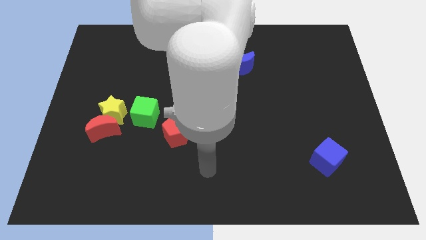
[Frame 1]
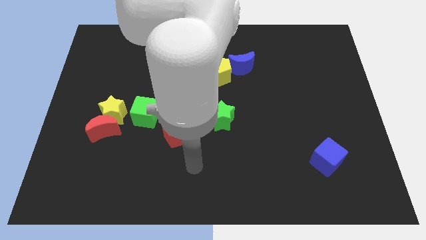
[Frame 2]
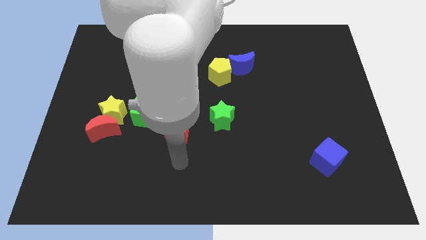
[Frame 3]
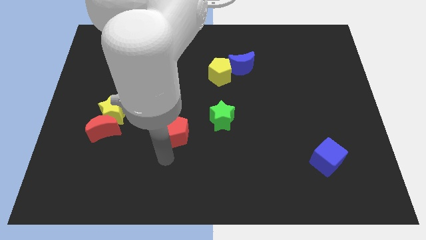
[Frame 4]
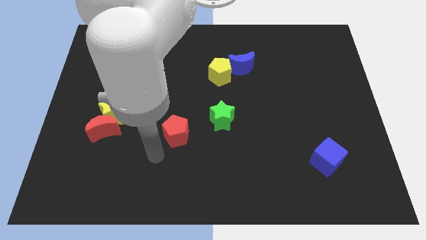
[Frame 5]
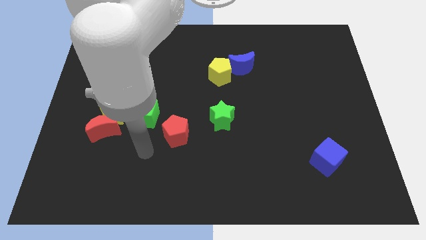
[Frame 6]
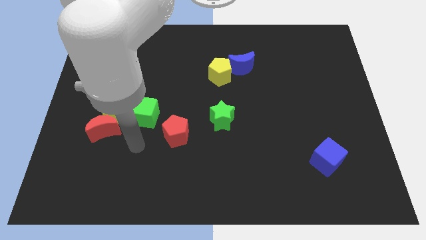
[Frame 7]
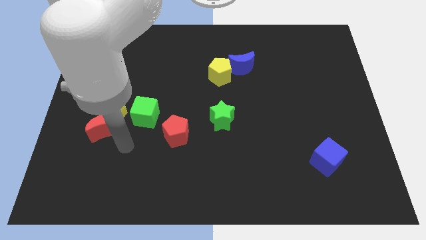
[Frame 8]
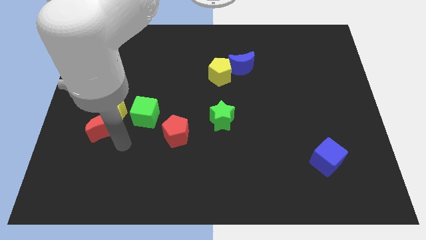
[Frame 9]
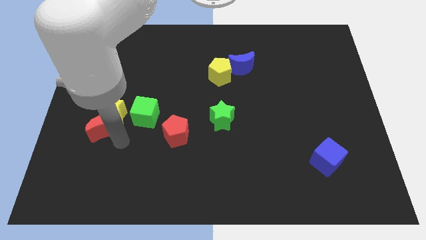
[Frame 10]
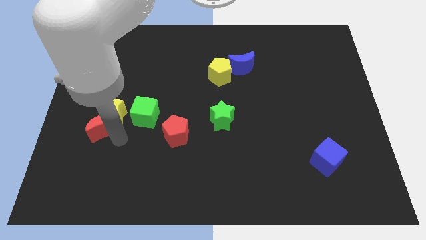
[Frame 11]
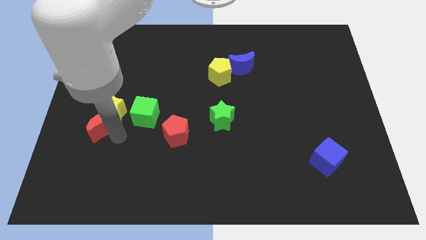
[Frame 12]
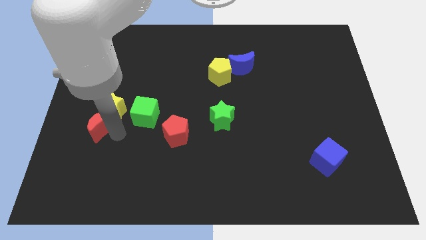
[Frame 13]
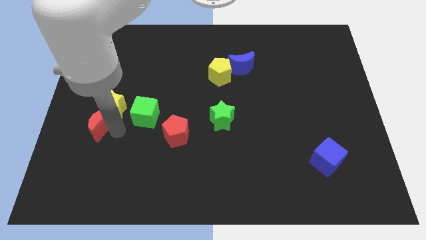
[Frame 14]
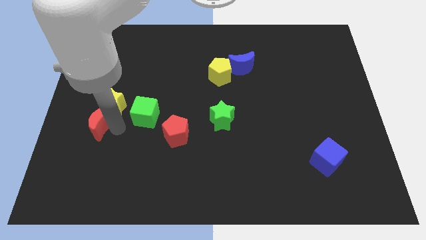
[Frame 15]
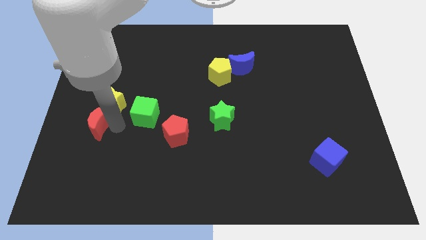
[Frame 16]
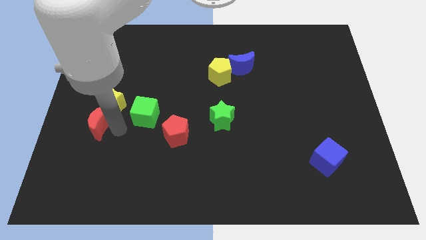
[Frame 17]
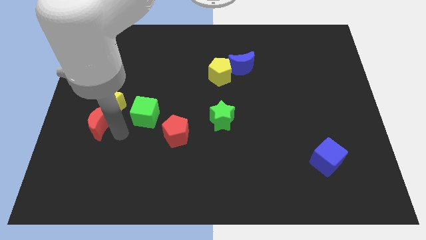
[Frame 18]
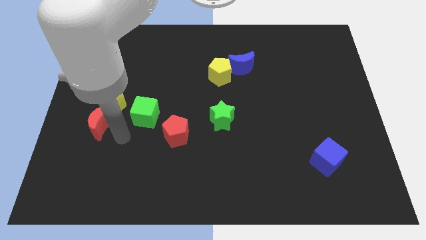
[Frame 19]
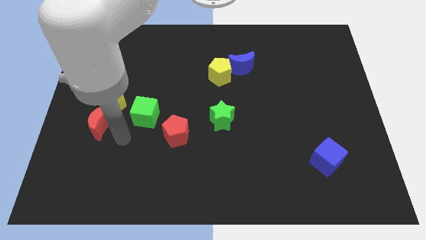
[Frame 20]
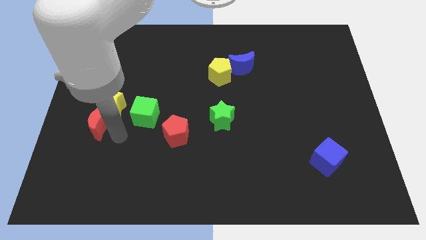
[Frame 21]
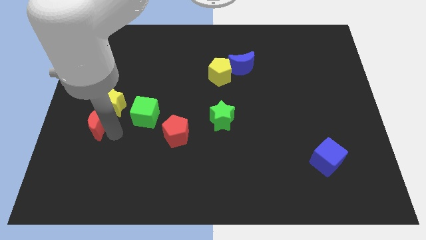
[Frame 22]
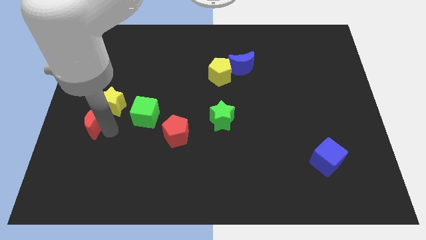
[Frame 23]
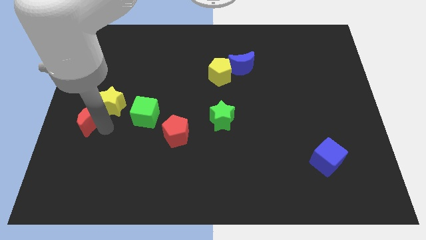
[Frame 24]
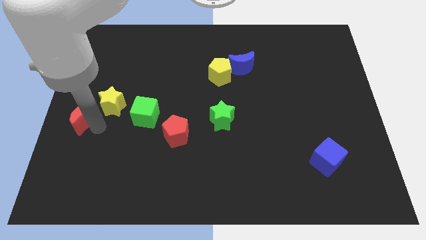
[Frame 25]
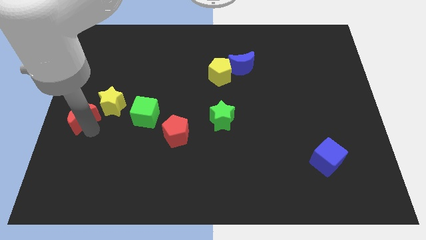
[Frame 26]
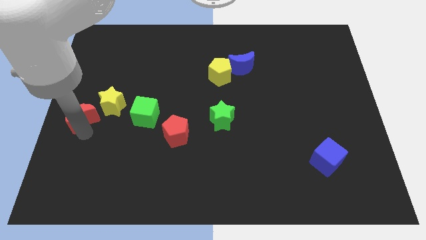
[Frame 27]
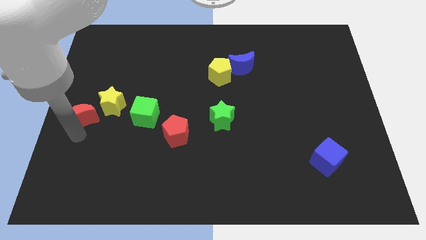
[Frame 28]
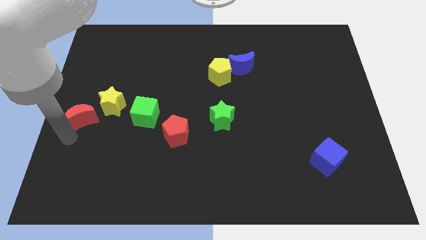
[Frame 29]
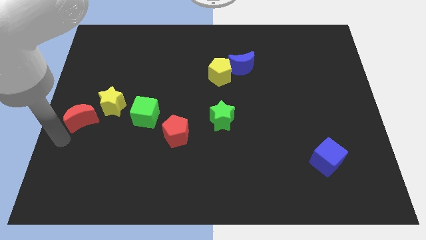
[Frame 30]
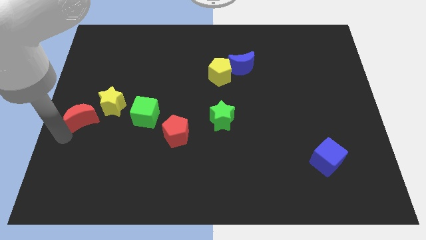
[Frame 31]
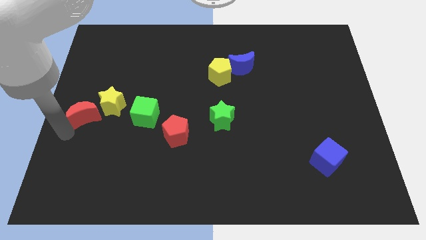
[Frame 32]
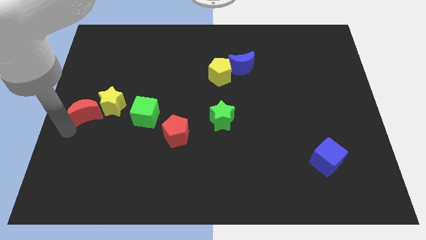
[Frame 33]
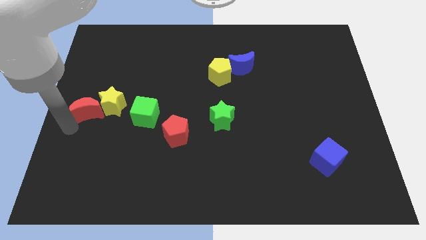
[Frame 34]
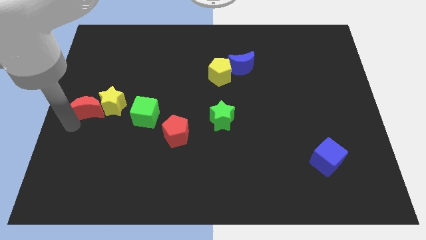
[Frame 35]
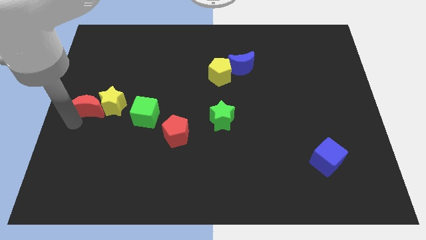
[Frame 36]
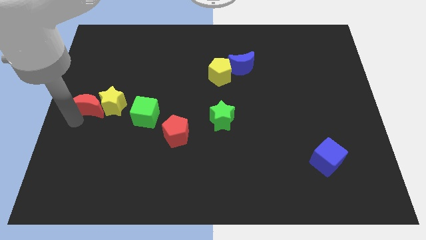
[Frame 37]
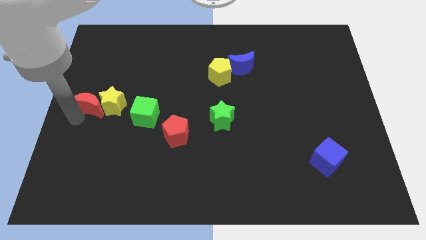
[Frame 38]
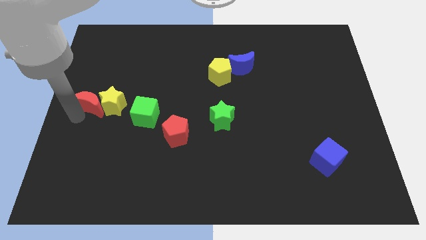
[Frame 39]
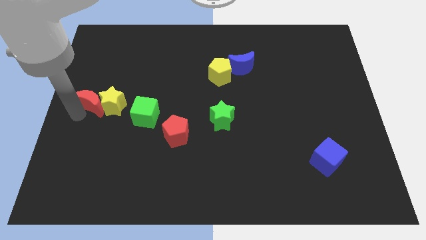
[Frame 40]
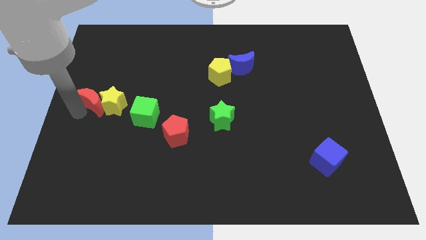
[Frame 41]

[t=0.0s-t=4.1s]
slightly move the red moon up

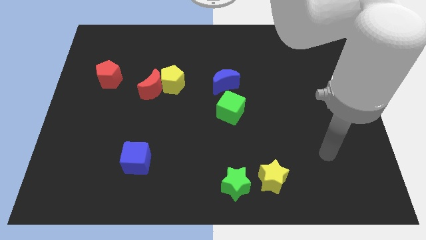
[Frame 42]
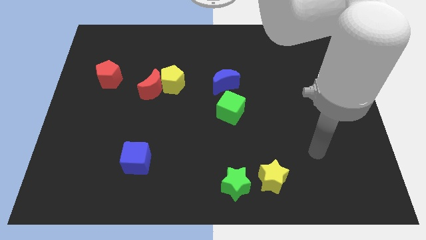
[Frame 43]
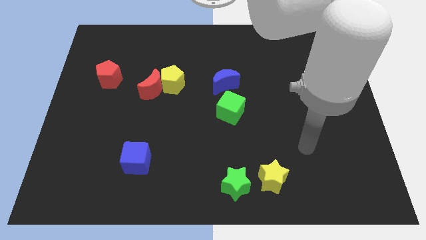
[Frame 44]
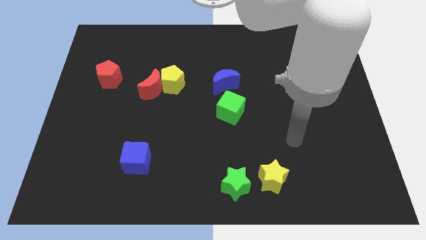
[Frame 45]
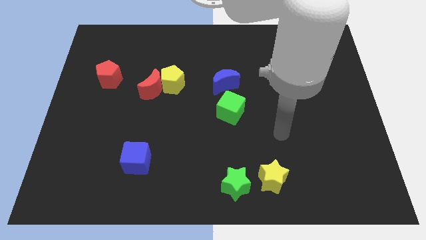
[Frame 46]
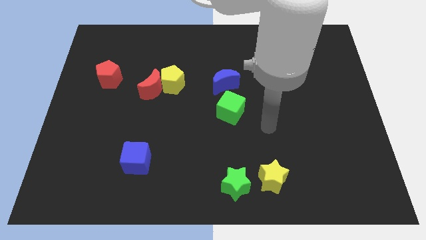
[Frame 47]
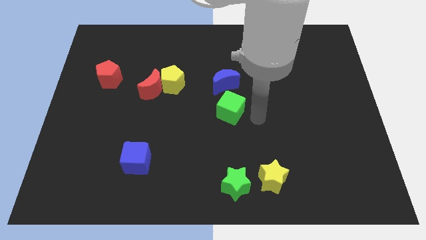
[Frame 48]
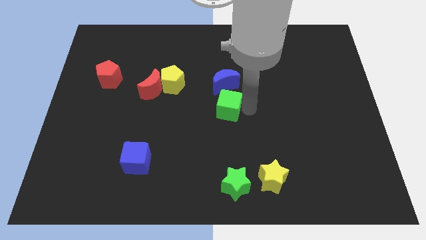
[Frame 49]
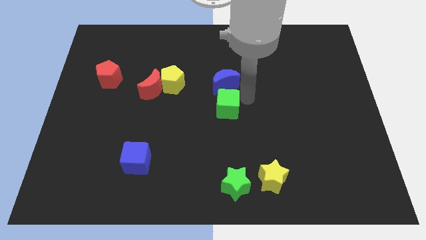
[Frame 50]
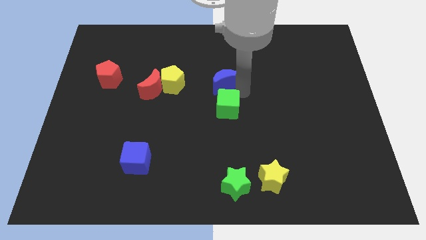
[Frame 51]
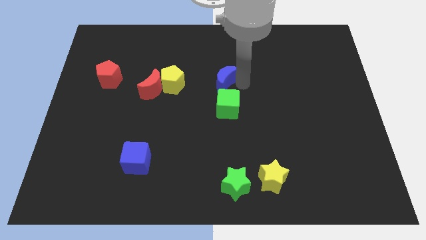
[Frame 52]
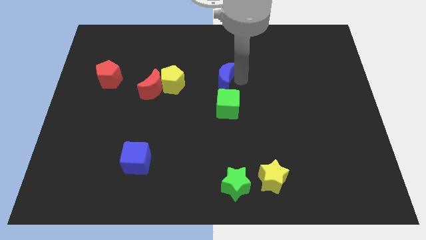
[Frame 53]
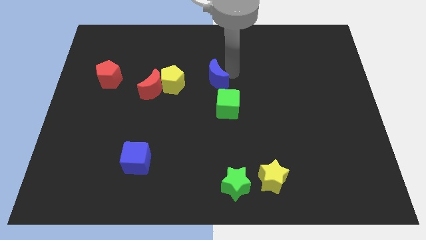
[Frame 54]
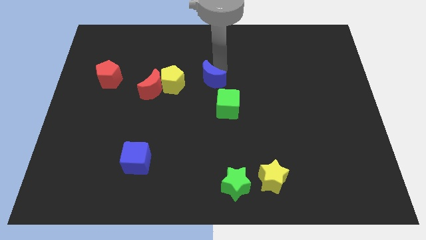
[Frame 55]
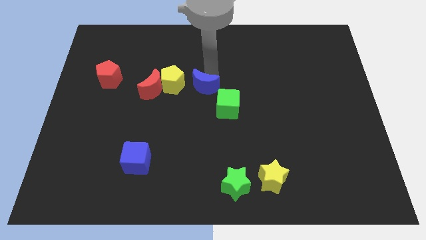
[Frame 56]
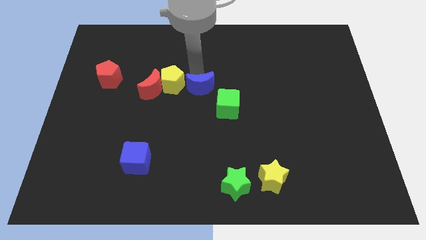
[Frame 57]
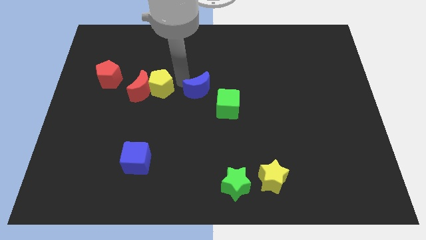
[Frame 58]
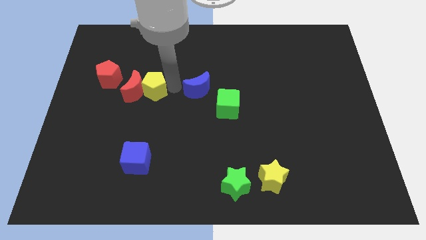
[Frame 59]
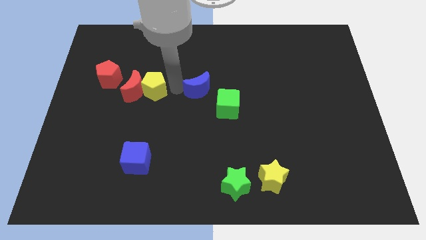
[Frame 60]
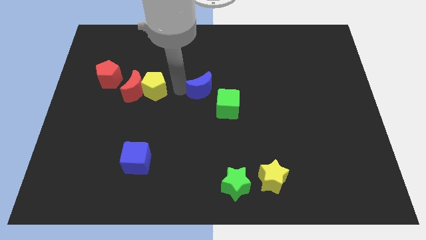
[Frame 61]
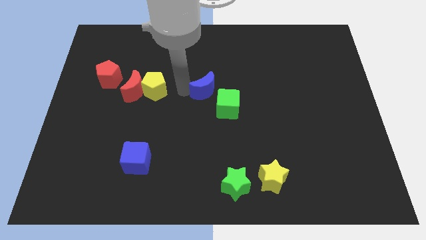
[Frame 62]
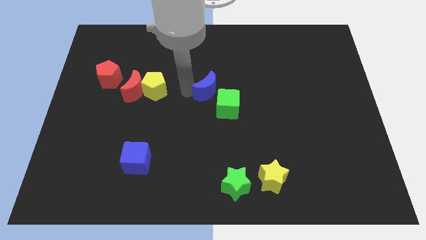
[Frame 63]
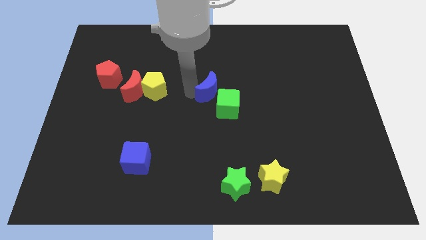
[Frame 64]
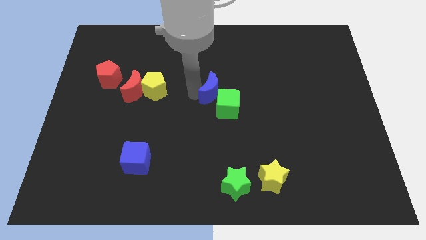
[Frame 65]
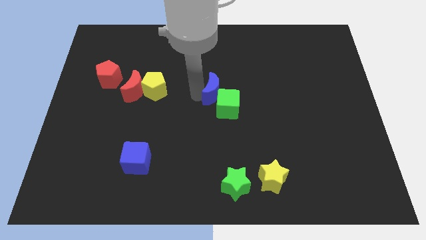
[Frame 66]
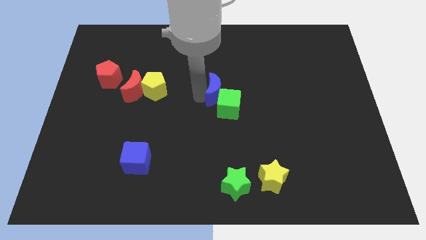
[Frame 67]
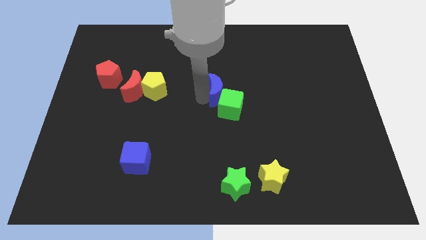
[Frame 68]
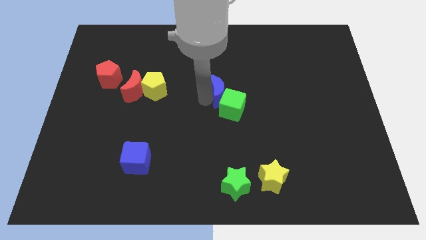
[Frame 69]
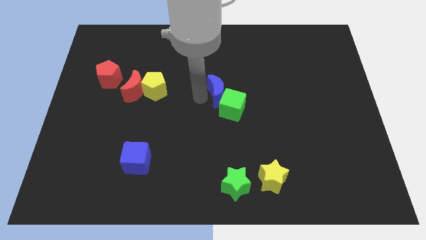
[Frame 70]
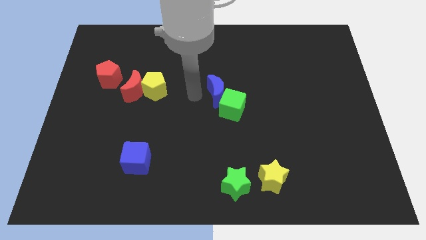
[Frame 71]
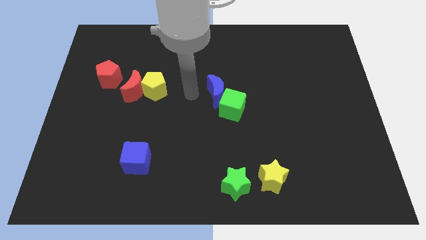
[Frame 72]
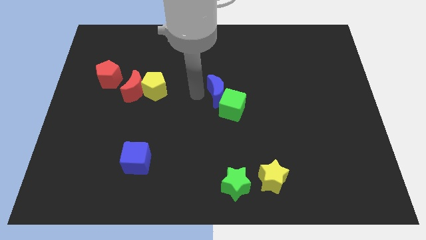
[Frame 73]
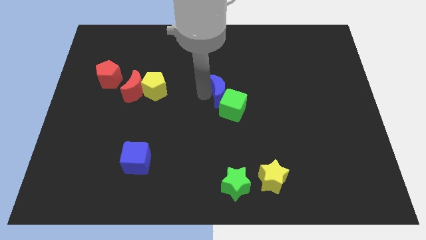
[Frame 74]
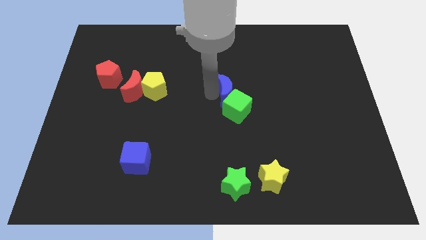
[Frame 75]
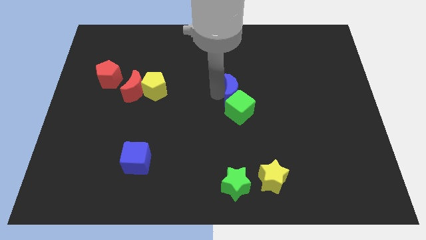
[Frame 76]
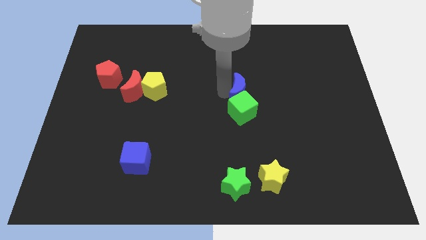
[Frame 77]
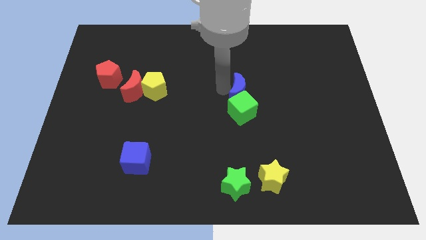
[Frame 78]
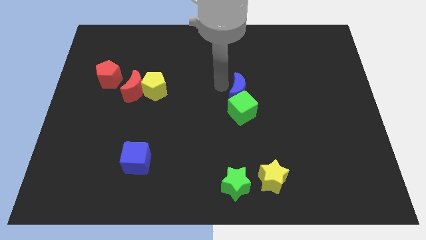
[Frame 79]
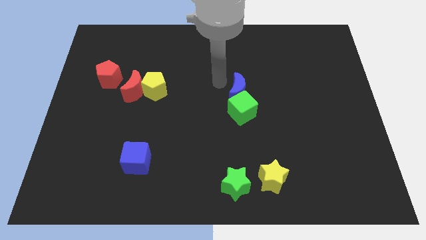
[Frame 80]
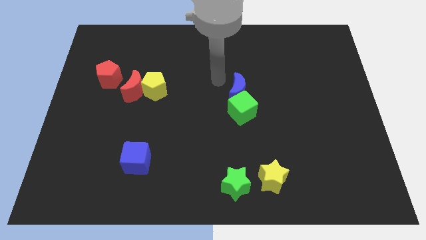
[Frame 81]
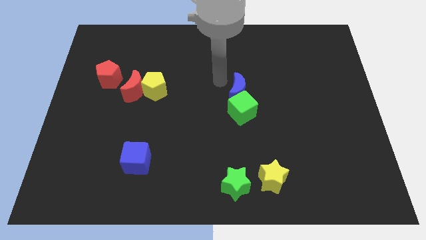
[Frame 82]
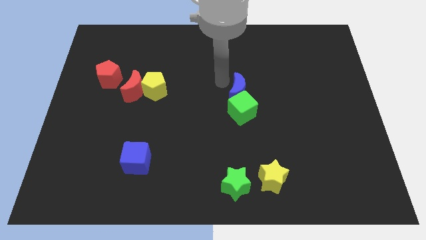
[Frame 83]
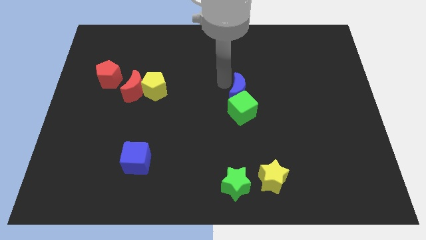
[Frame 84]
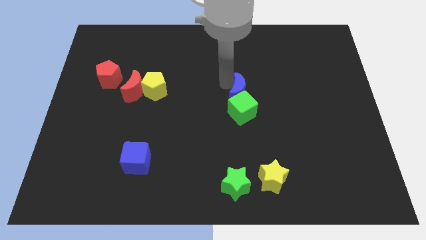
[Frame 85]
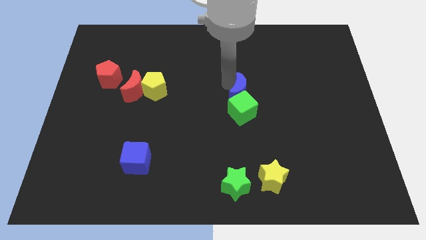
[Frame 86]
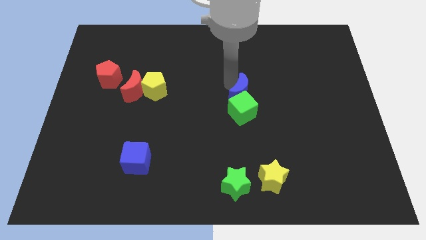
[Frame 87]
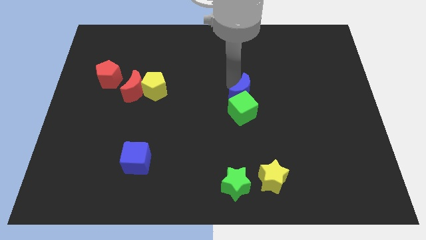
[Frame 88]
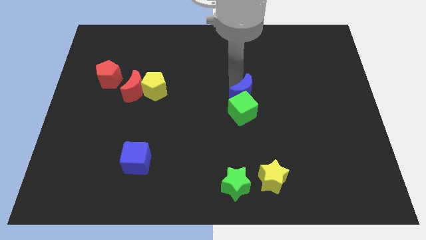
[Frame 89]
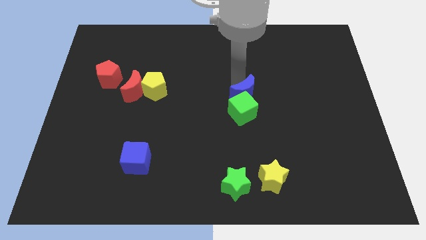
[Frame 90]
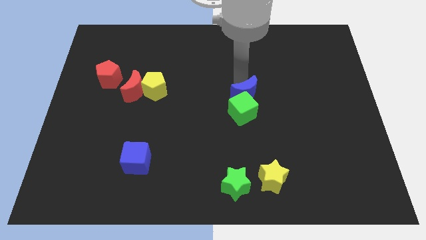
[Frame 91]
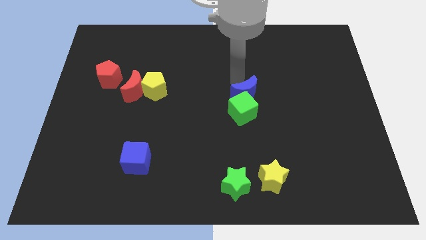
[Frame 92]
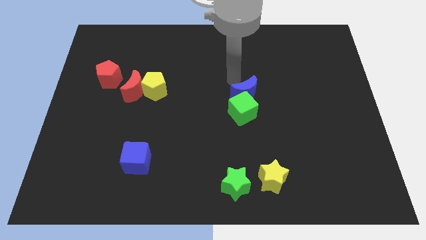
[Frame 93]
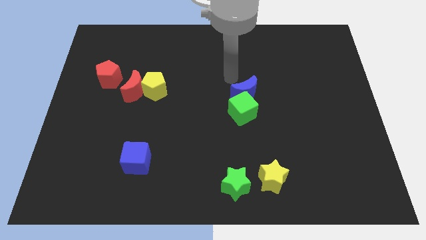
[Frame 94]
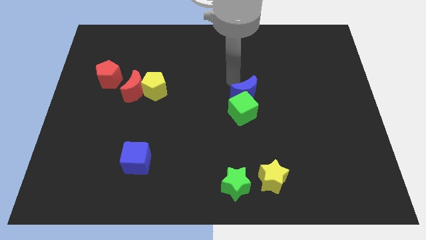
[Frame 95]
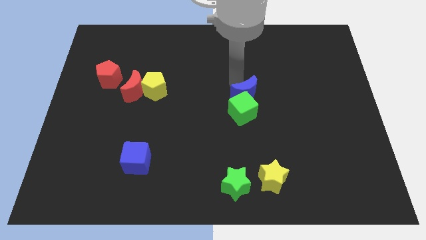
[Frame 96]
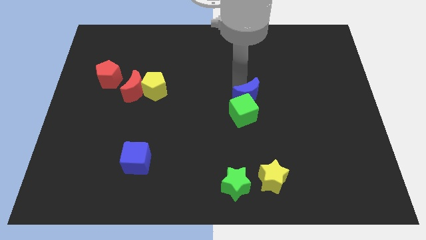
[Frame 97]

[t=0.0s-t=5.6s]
slide the blue moon down and to the right diagonally somewhat
